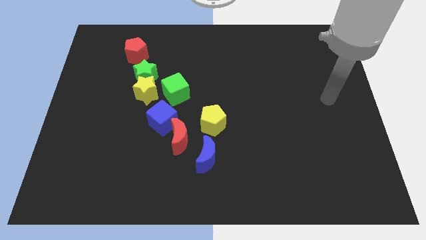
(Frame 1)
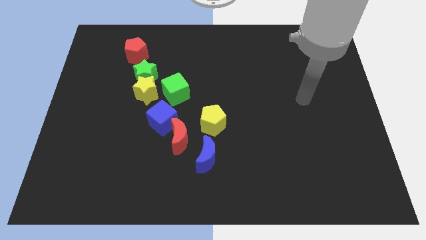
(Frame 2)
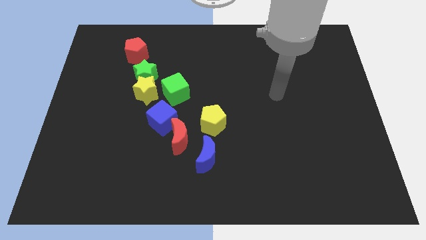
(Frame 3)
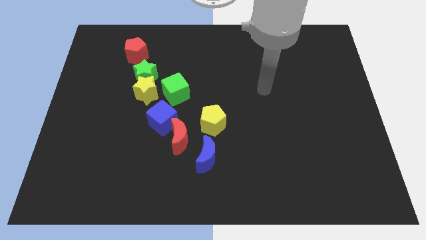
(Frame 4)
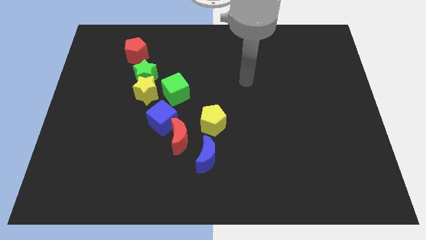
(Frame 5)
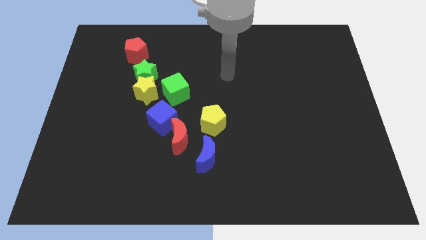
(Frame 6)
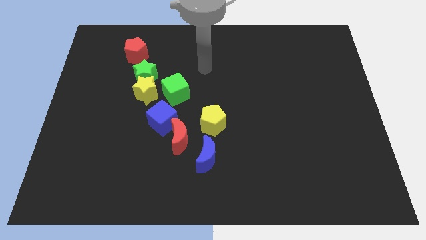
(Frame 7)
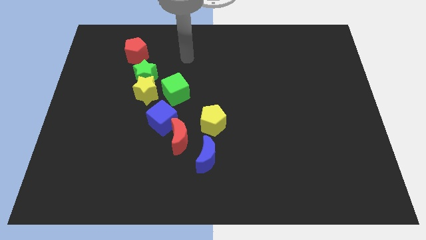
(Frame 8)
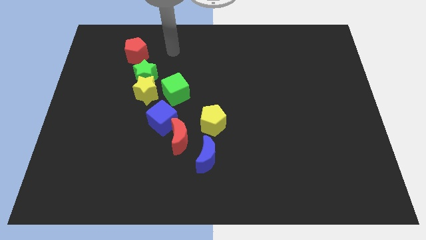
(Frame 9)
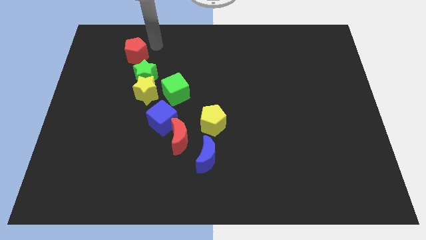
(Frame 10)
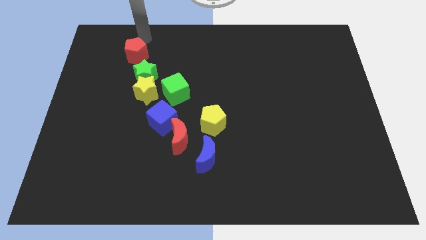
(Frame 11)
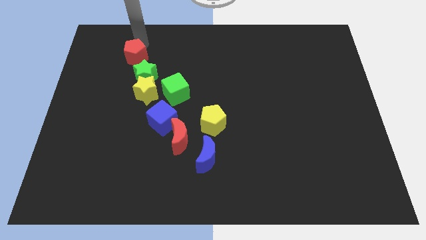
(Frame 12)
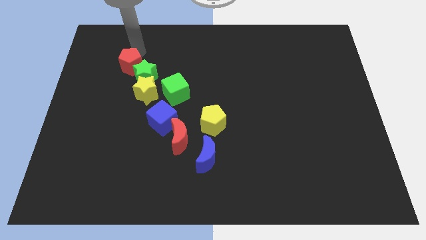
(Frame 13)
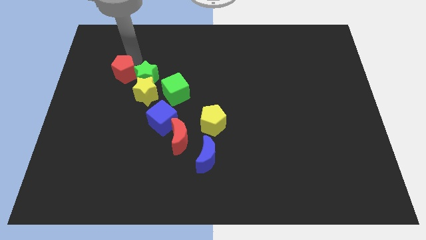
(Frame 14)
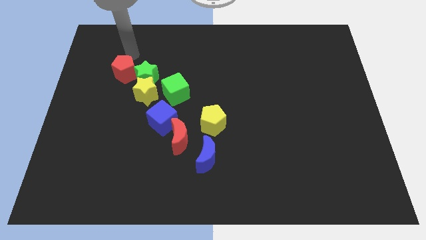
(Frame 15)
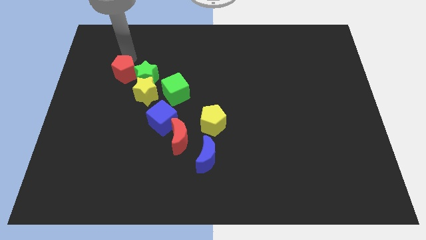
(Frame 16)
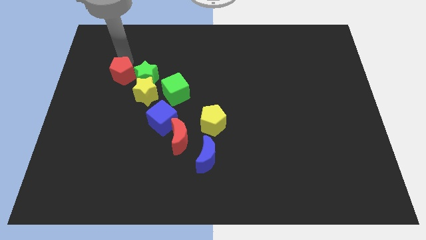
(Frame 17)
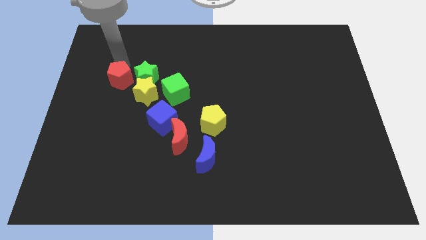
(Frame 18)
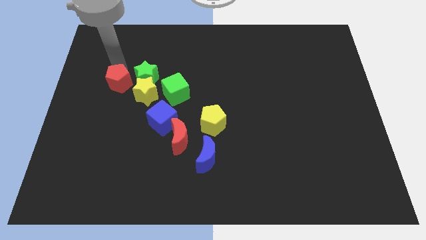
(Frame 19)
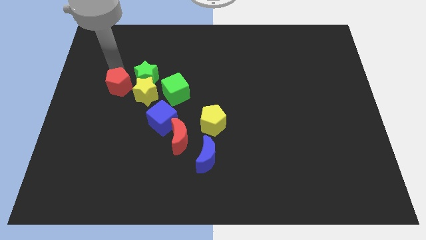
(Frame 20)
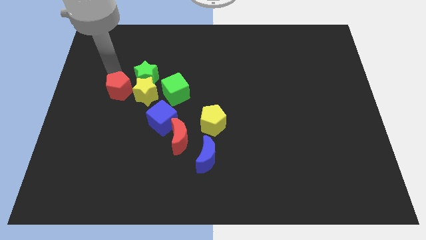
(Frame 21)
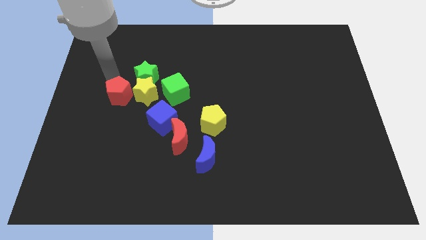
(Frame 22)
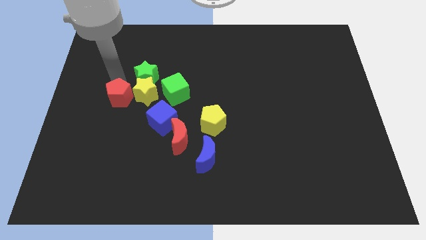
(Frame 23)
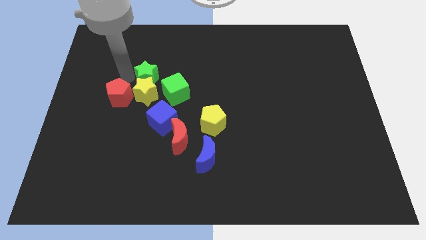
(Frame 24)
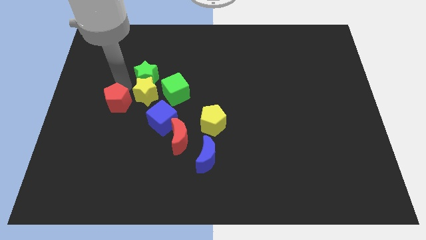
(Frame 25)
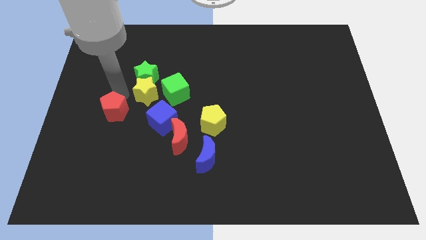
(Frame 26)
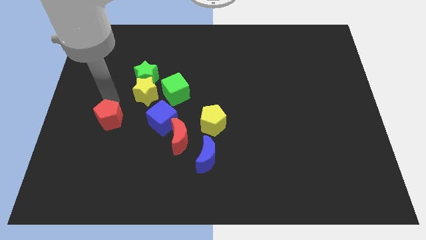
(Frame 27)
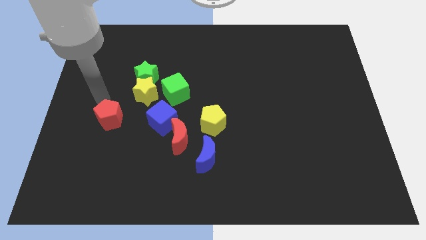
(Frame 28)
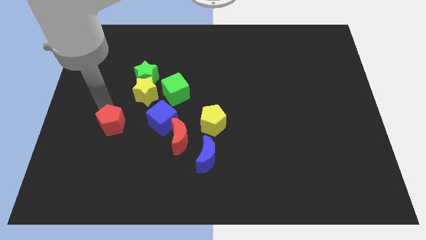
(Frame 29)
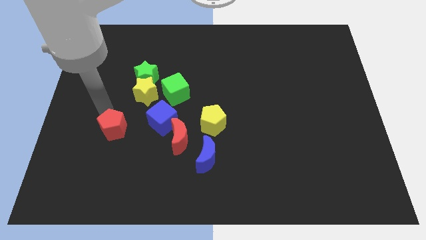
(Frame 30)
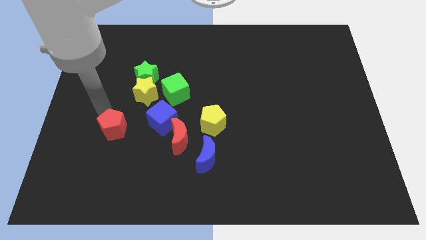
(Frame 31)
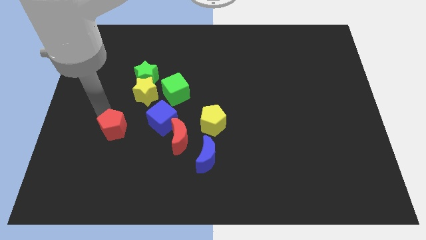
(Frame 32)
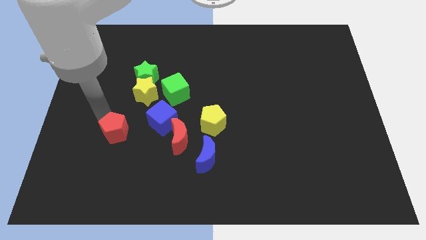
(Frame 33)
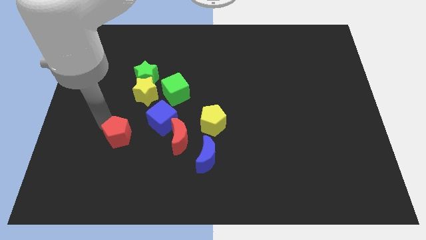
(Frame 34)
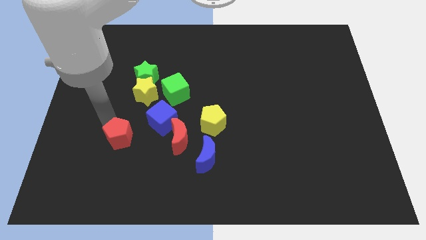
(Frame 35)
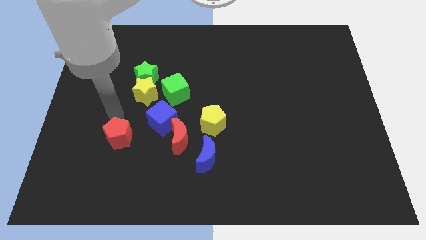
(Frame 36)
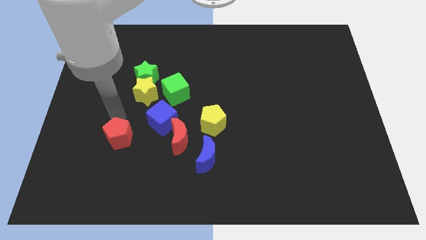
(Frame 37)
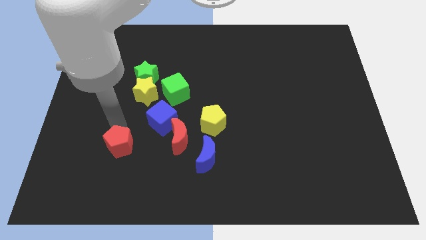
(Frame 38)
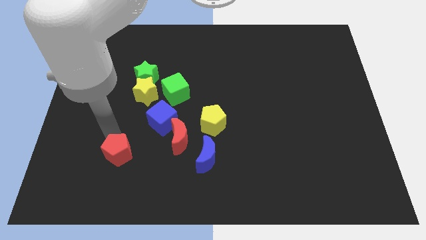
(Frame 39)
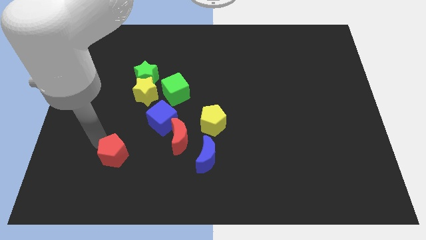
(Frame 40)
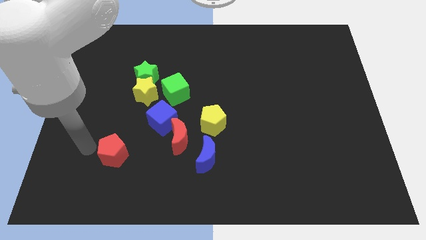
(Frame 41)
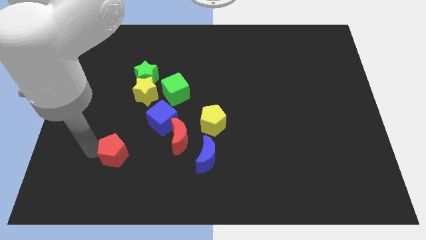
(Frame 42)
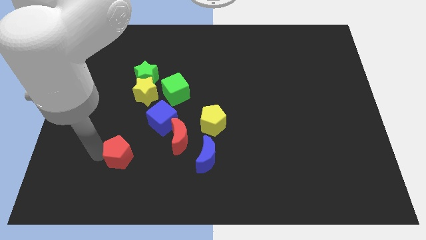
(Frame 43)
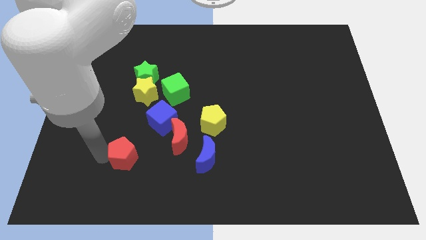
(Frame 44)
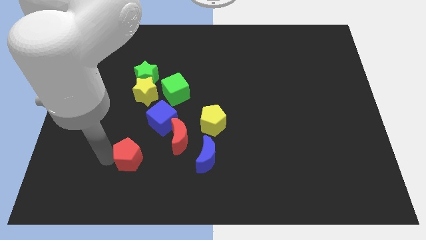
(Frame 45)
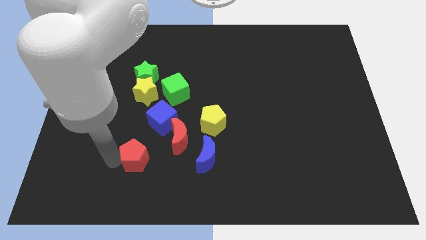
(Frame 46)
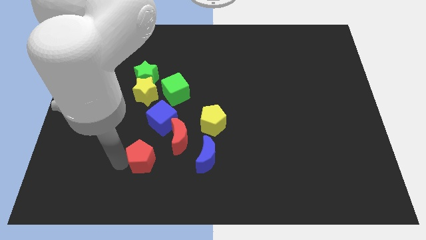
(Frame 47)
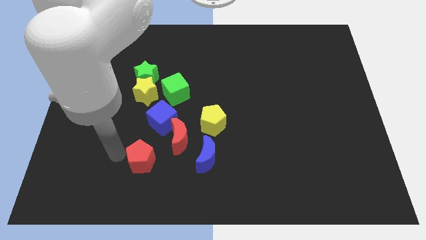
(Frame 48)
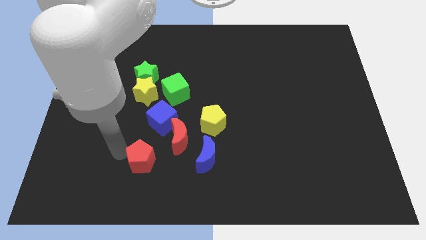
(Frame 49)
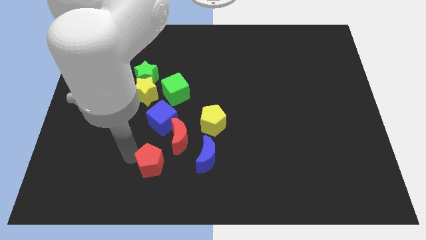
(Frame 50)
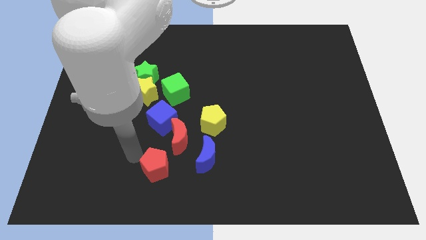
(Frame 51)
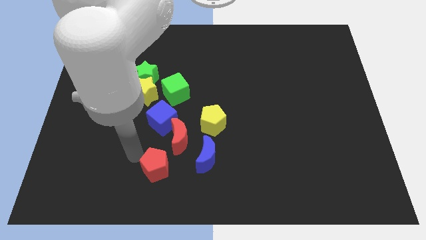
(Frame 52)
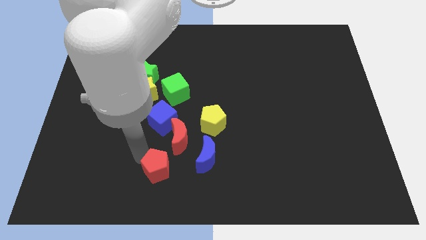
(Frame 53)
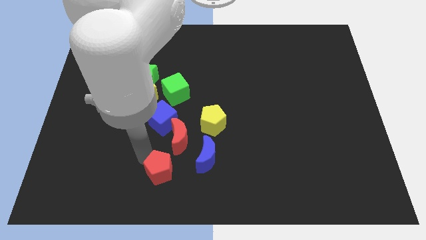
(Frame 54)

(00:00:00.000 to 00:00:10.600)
slide the red pentagon diagonally down and to the left of the blue moon
